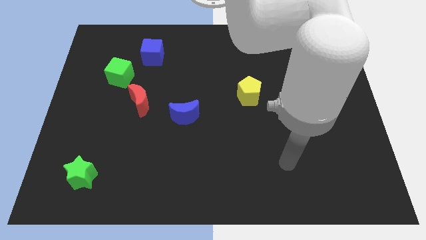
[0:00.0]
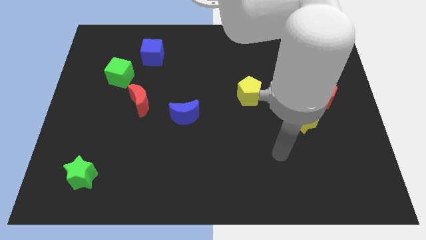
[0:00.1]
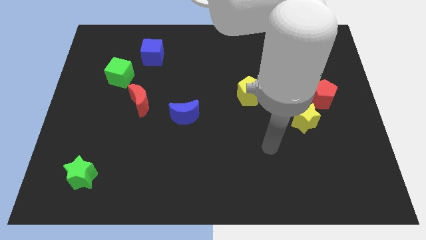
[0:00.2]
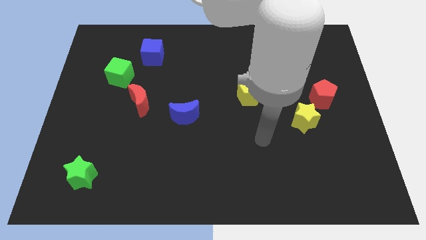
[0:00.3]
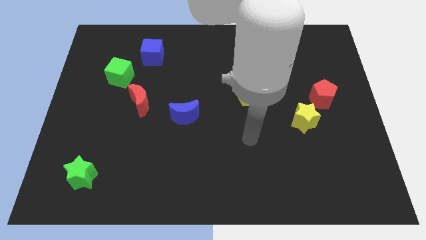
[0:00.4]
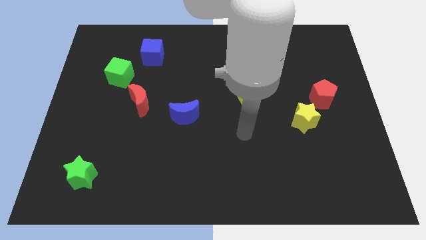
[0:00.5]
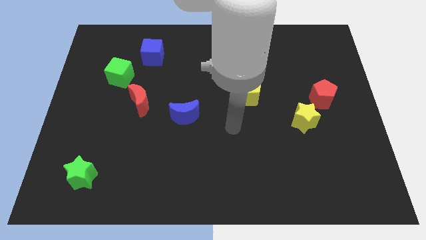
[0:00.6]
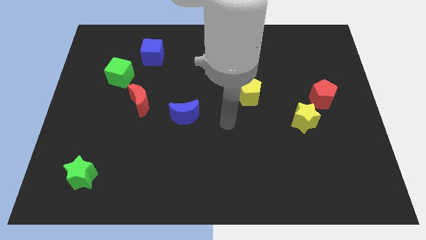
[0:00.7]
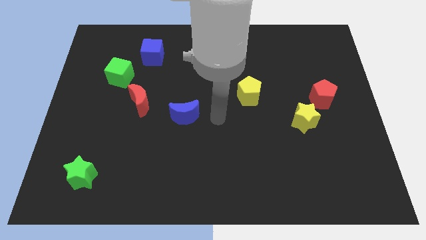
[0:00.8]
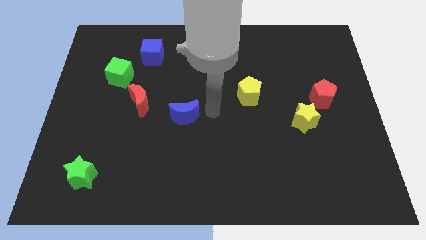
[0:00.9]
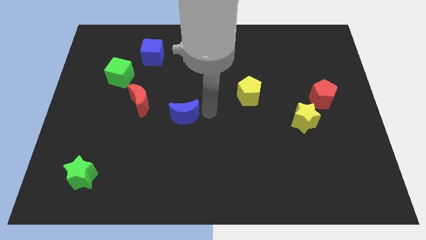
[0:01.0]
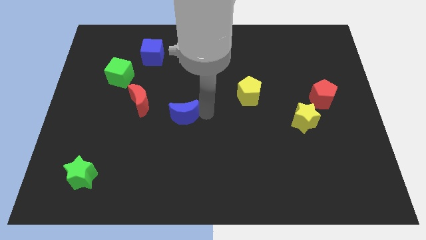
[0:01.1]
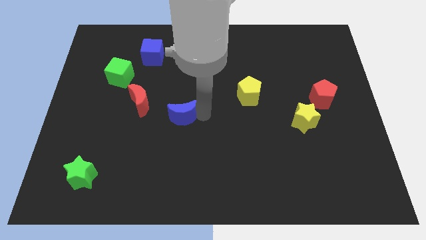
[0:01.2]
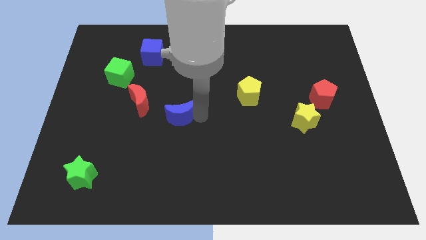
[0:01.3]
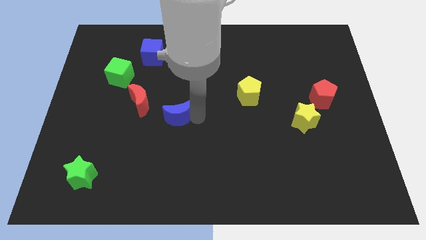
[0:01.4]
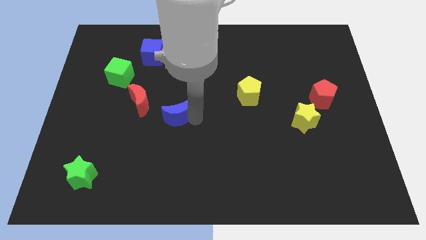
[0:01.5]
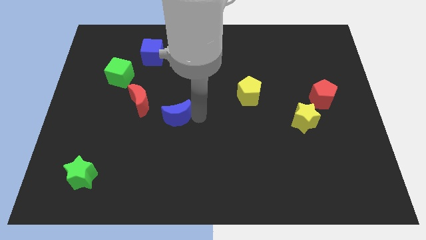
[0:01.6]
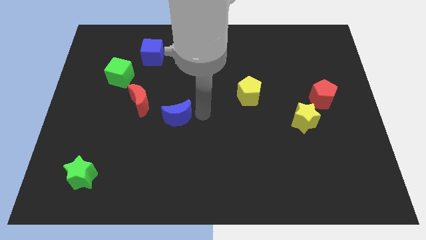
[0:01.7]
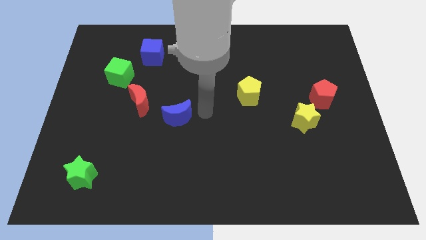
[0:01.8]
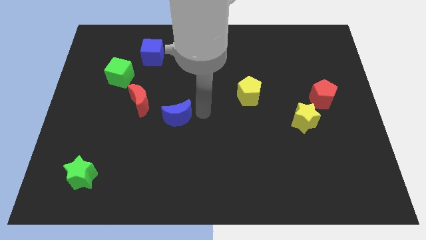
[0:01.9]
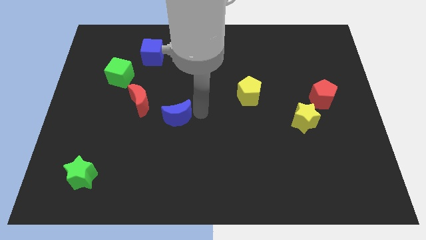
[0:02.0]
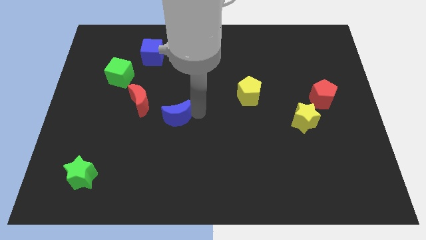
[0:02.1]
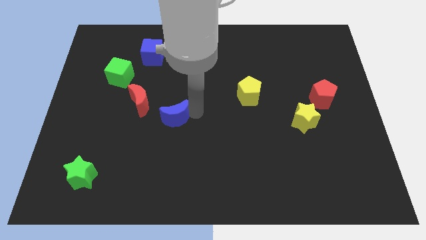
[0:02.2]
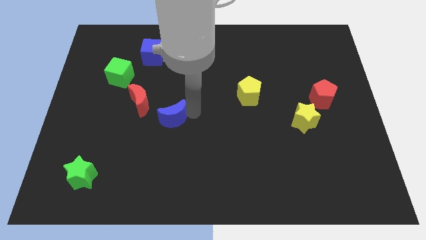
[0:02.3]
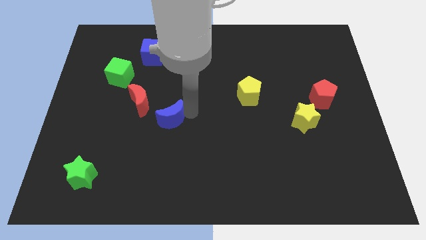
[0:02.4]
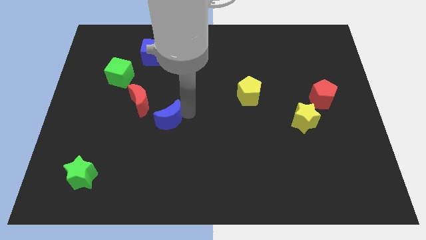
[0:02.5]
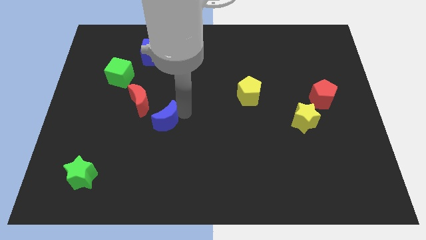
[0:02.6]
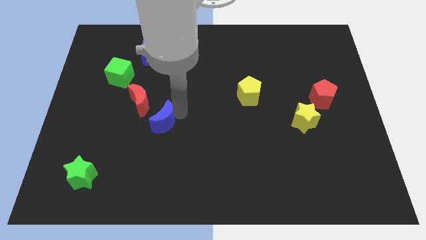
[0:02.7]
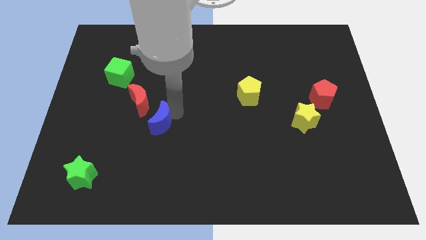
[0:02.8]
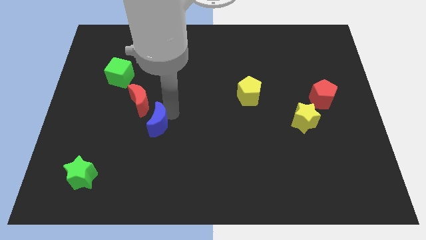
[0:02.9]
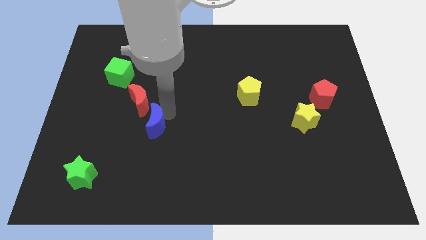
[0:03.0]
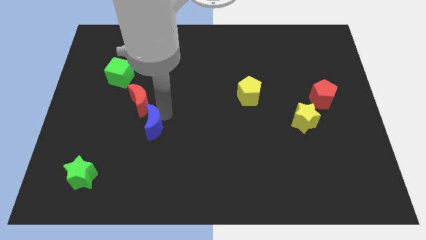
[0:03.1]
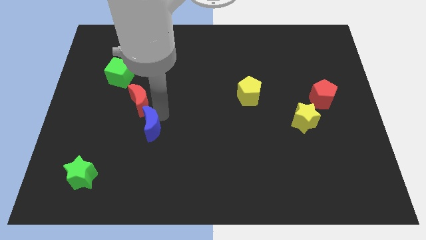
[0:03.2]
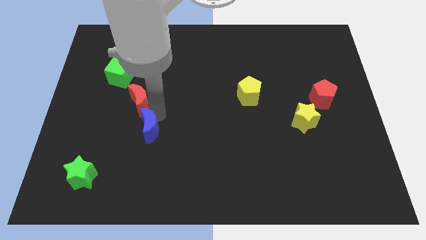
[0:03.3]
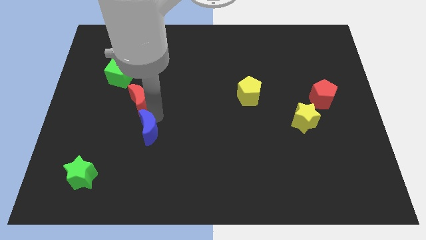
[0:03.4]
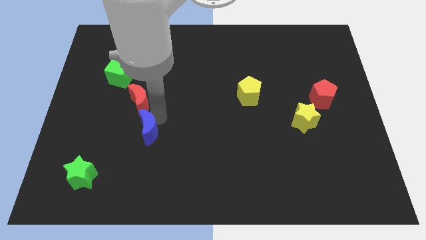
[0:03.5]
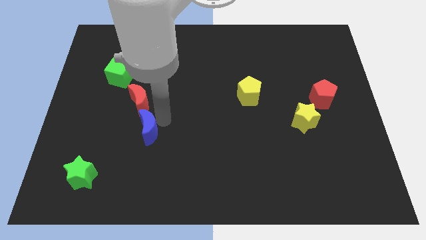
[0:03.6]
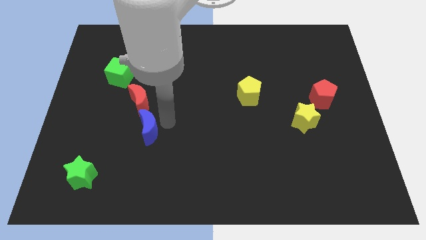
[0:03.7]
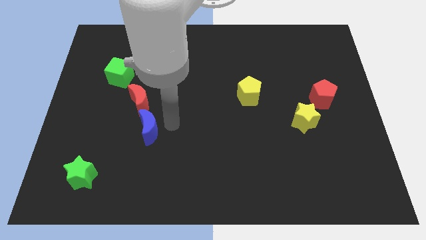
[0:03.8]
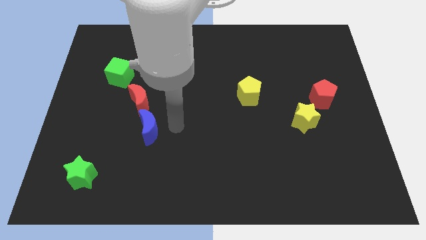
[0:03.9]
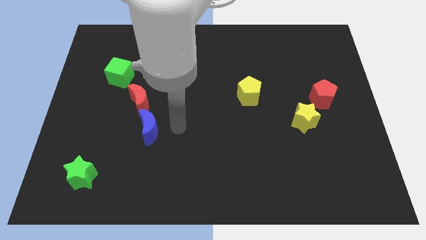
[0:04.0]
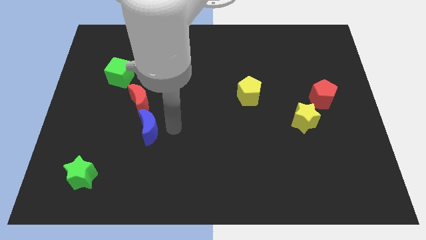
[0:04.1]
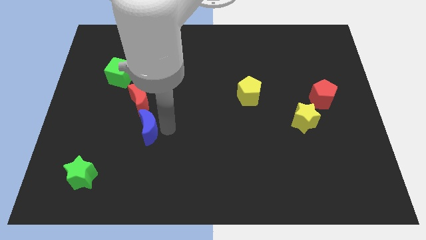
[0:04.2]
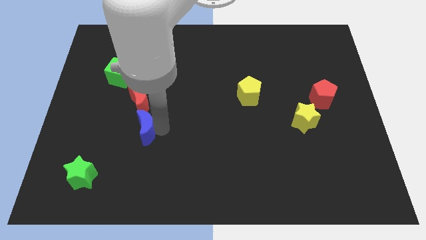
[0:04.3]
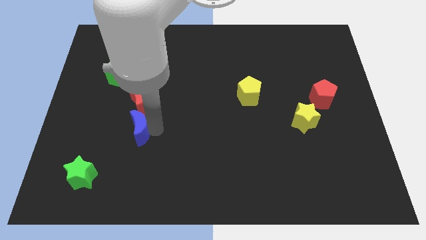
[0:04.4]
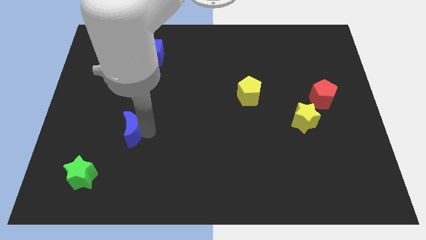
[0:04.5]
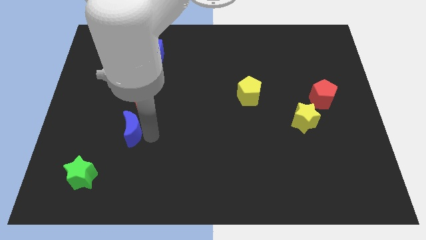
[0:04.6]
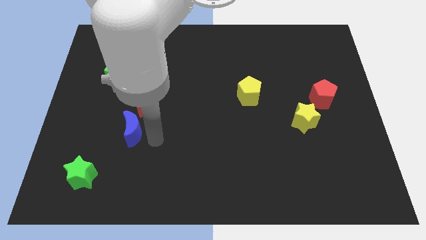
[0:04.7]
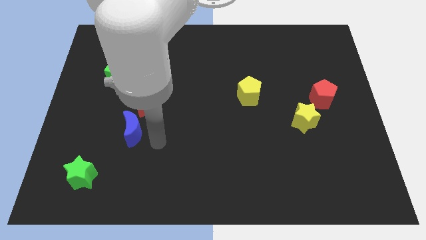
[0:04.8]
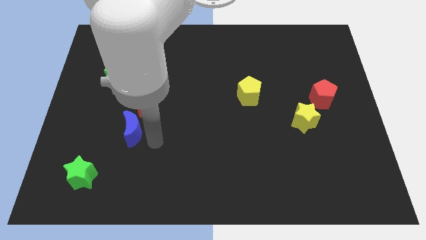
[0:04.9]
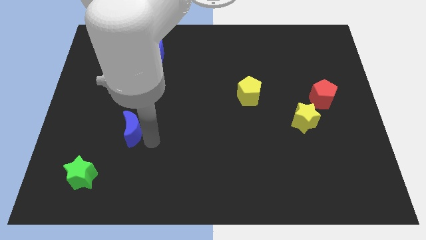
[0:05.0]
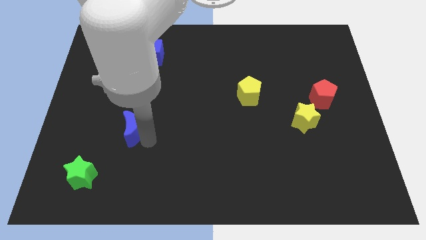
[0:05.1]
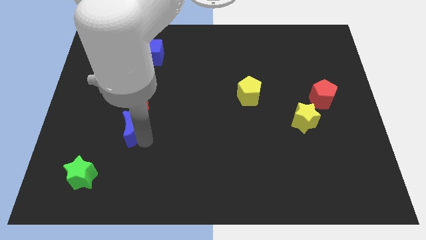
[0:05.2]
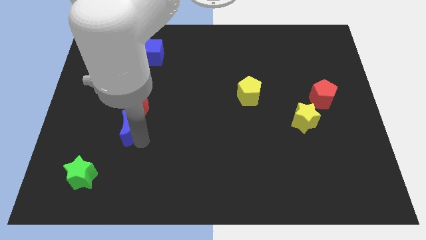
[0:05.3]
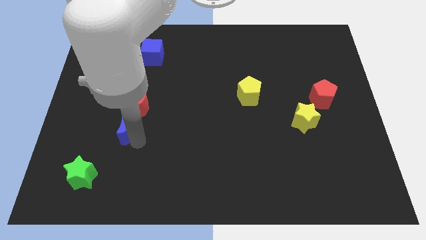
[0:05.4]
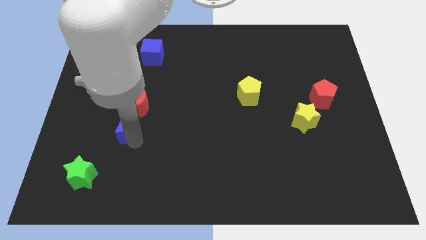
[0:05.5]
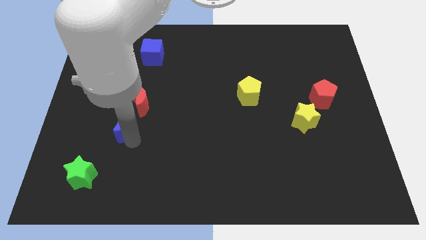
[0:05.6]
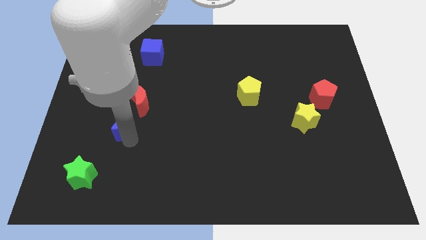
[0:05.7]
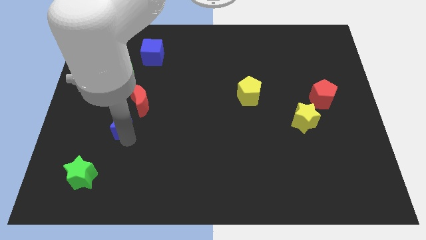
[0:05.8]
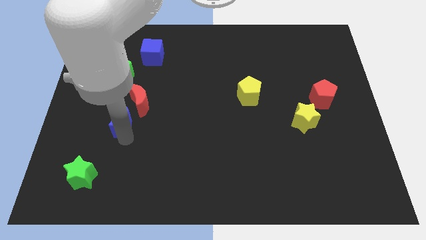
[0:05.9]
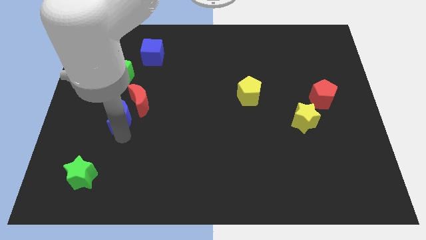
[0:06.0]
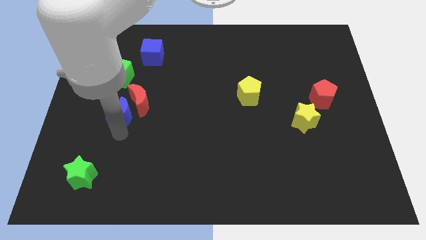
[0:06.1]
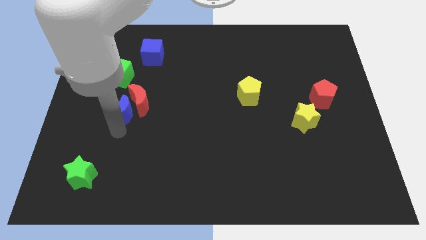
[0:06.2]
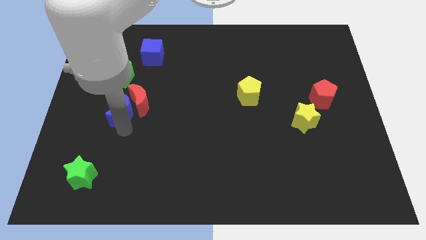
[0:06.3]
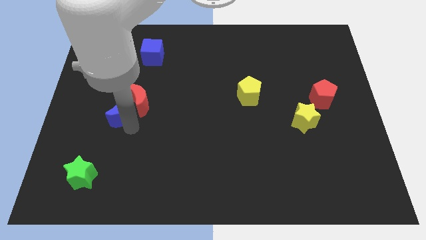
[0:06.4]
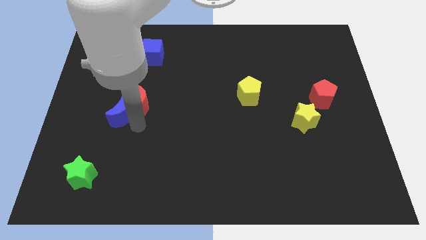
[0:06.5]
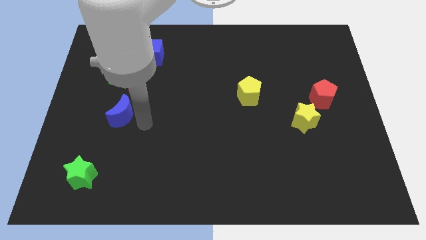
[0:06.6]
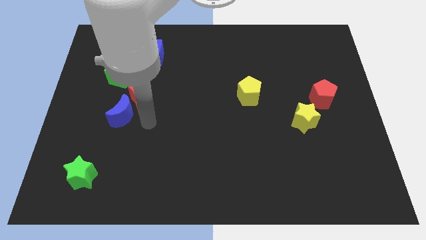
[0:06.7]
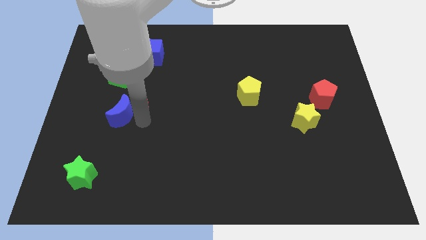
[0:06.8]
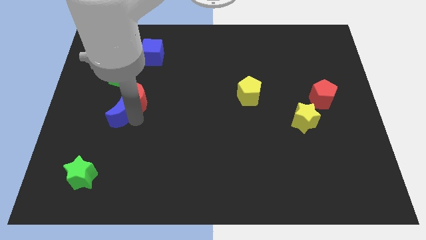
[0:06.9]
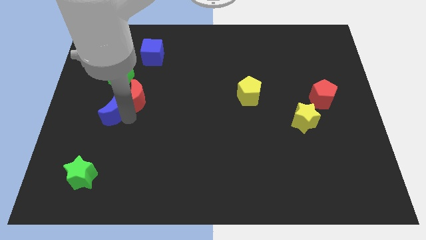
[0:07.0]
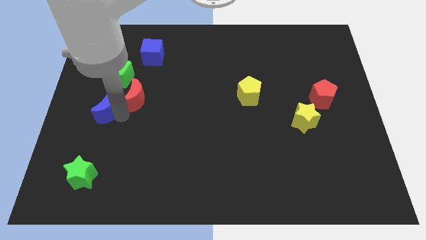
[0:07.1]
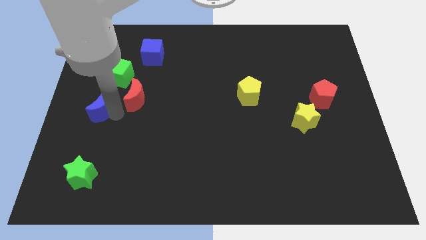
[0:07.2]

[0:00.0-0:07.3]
move the blue moon to the left side of the board
